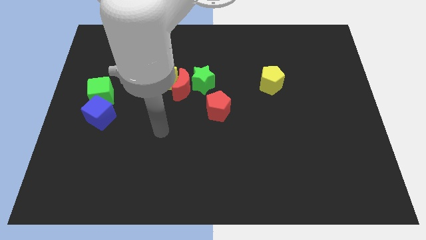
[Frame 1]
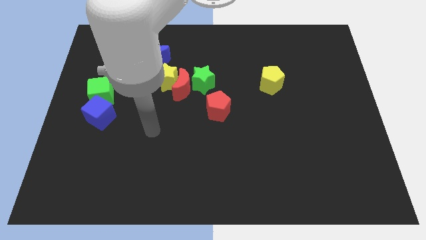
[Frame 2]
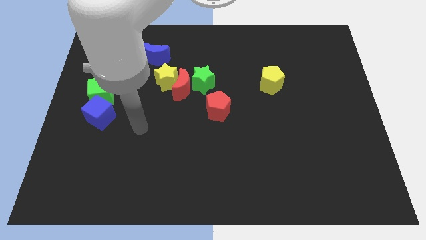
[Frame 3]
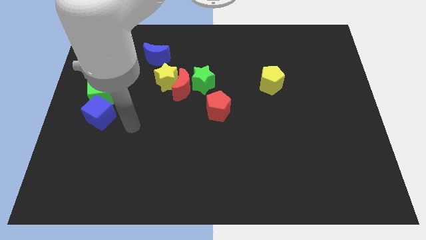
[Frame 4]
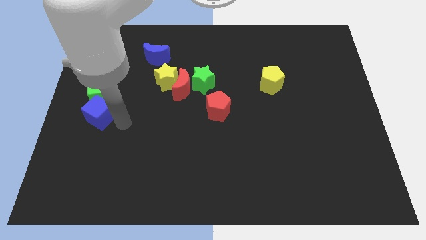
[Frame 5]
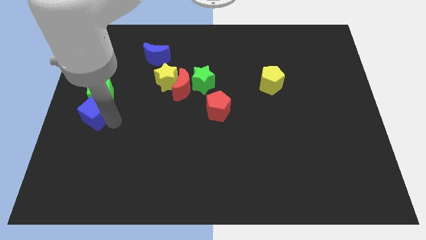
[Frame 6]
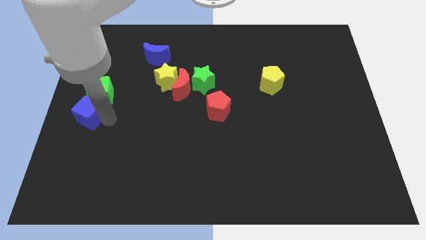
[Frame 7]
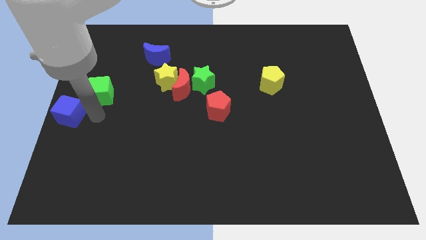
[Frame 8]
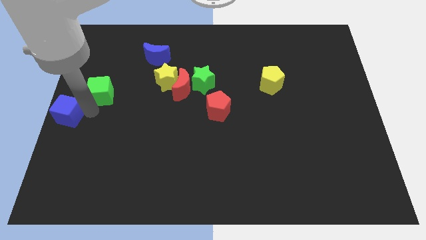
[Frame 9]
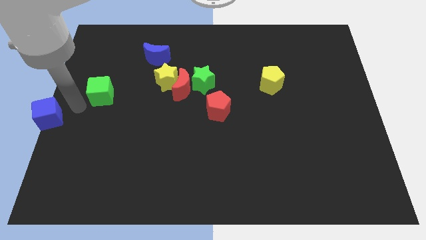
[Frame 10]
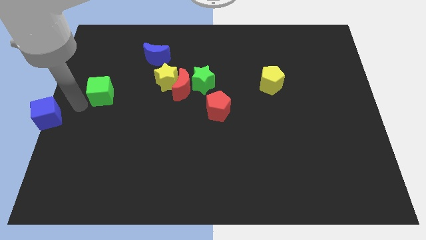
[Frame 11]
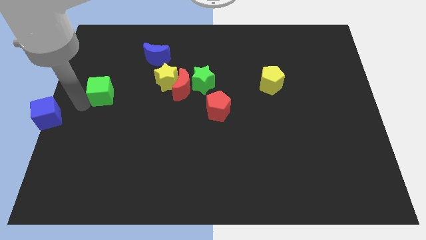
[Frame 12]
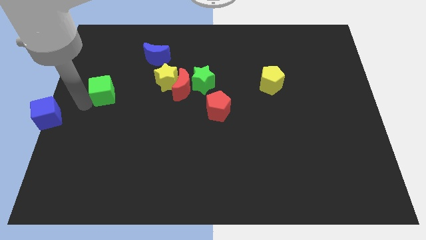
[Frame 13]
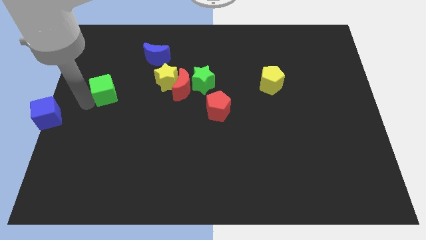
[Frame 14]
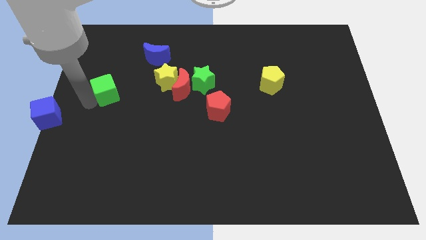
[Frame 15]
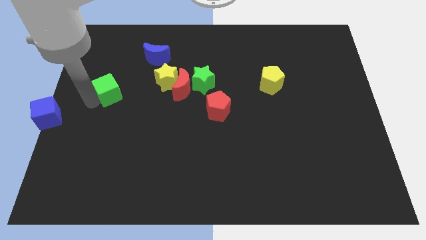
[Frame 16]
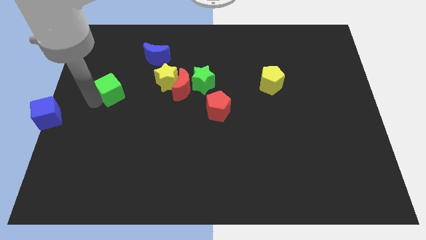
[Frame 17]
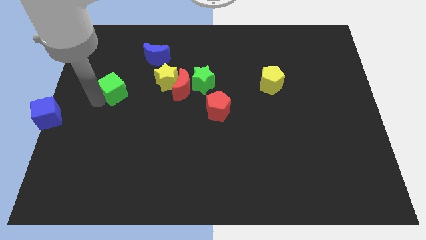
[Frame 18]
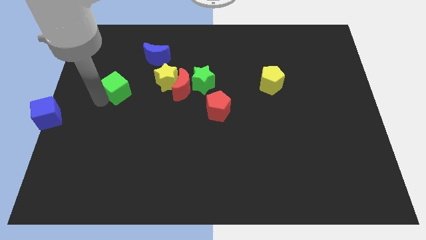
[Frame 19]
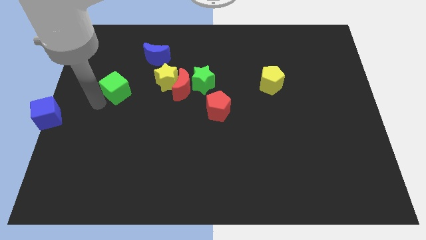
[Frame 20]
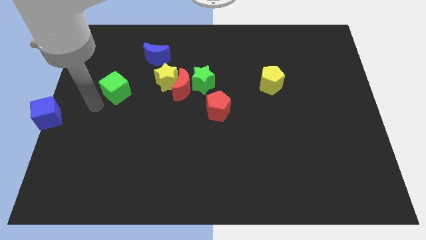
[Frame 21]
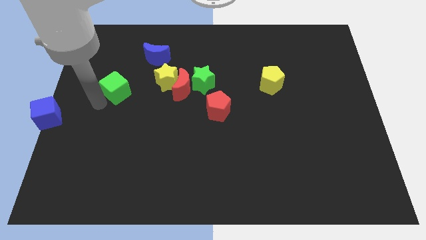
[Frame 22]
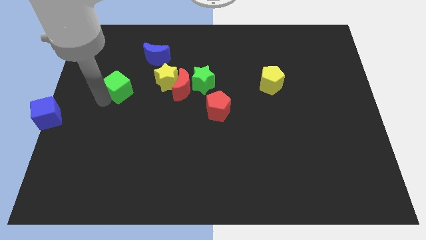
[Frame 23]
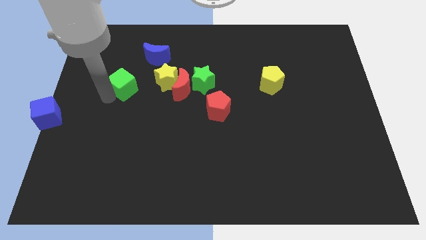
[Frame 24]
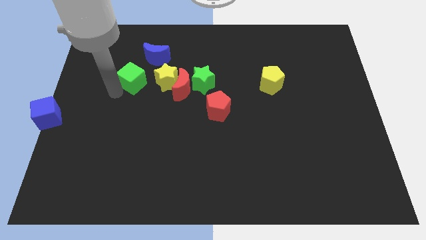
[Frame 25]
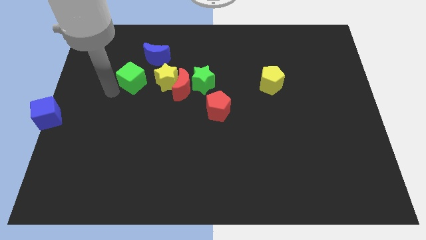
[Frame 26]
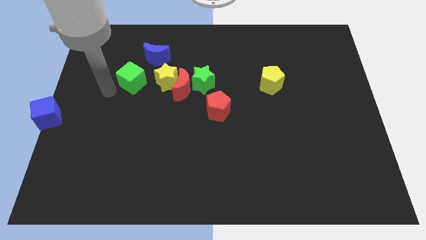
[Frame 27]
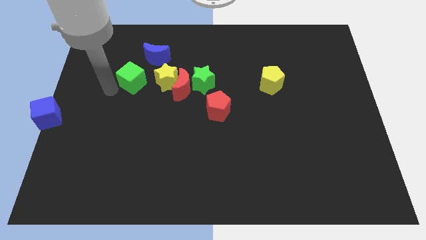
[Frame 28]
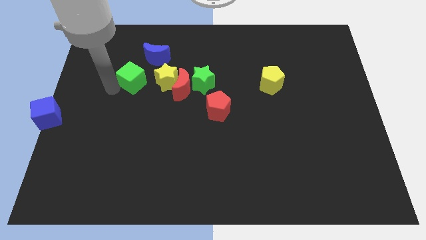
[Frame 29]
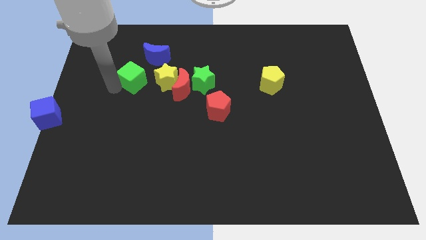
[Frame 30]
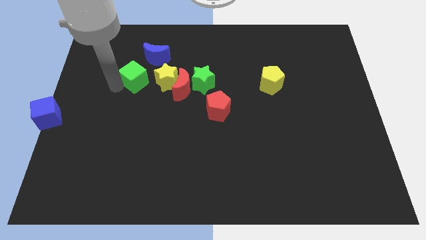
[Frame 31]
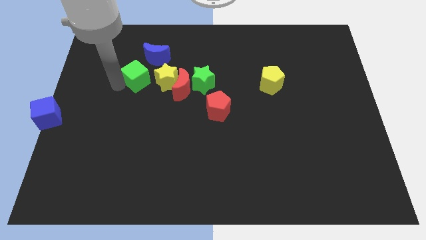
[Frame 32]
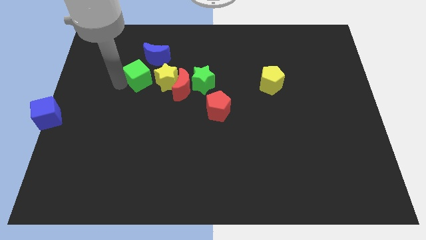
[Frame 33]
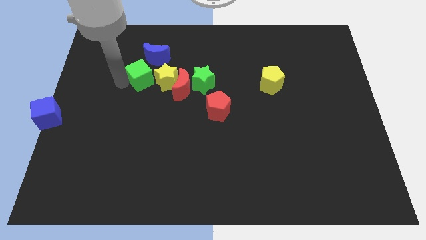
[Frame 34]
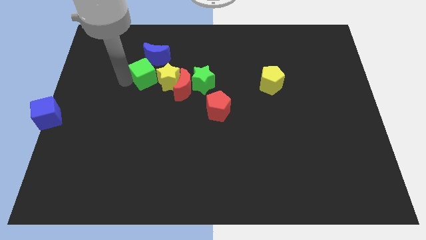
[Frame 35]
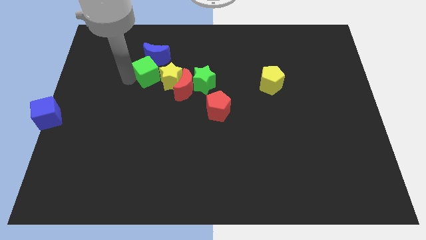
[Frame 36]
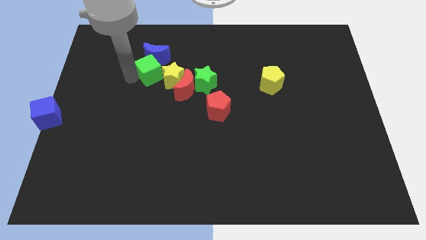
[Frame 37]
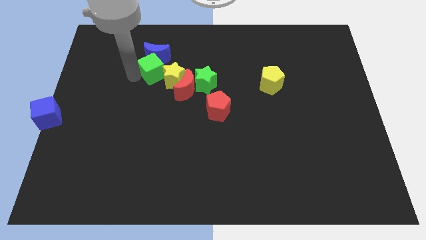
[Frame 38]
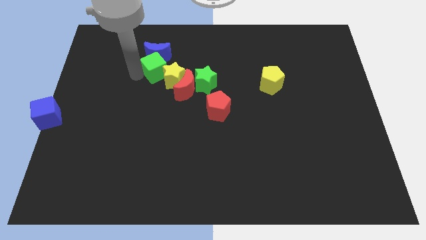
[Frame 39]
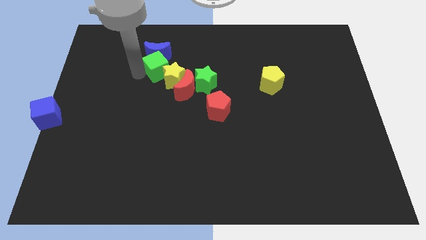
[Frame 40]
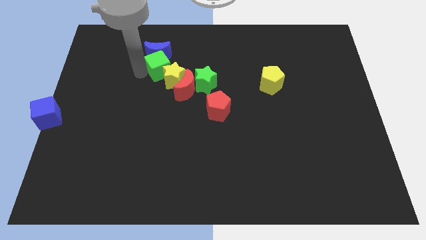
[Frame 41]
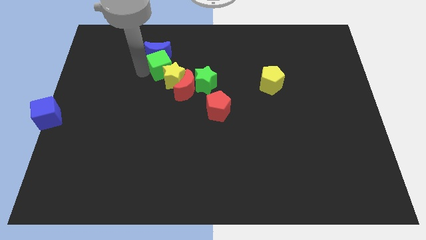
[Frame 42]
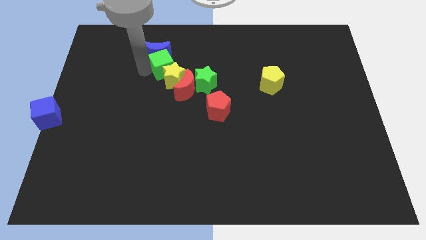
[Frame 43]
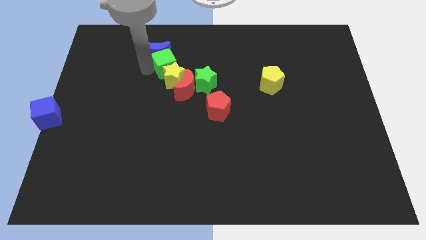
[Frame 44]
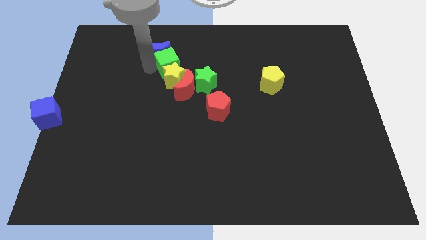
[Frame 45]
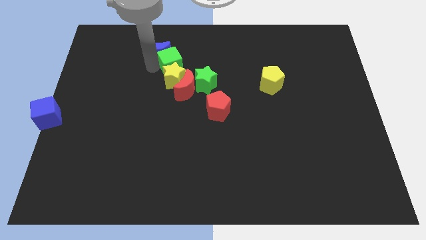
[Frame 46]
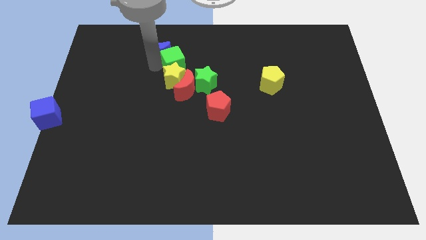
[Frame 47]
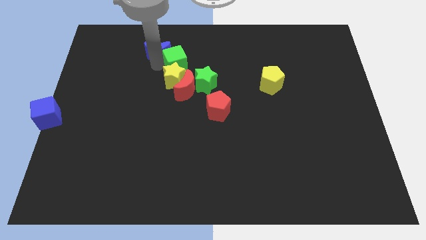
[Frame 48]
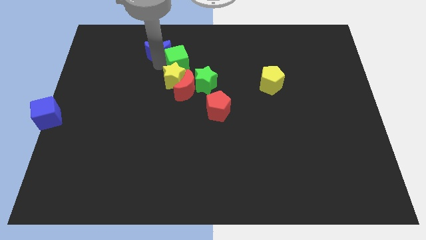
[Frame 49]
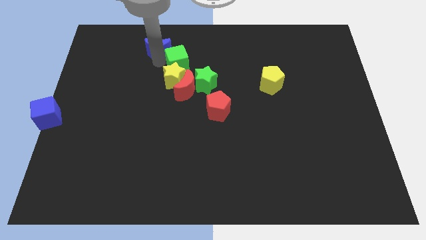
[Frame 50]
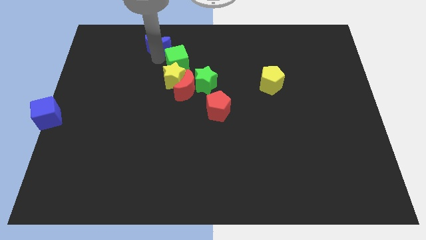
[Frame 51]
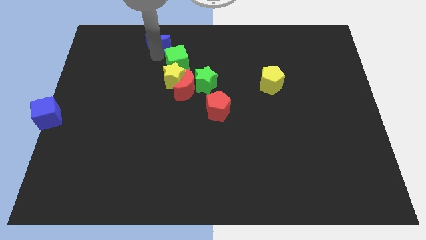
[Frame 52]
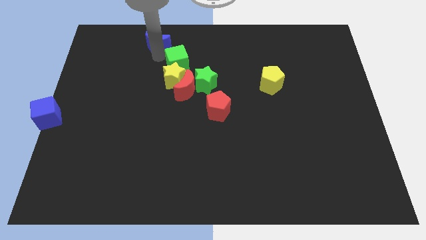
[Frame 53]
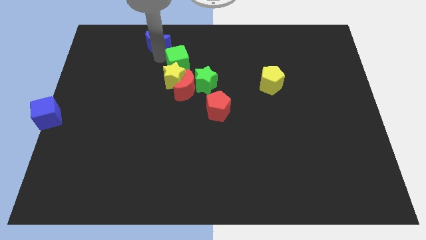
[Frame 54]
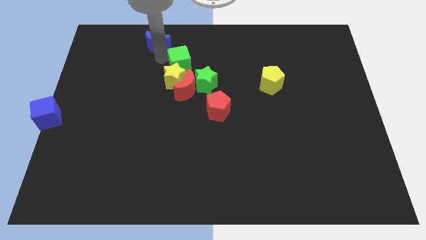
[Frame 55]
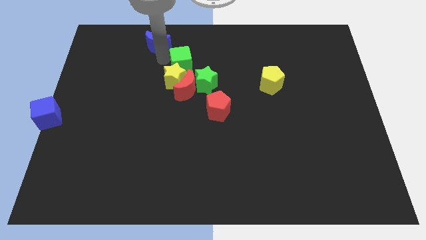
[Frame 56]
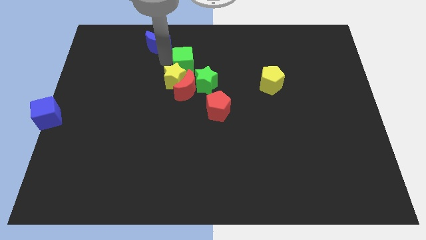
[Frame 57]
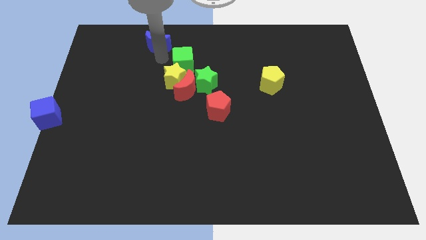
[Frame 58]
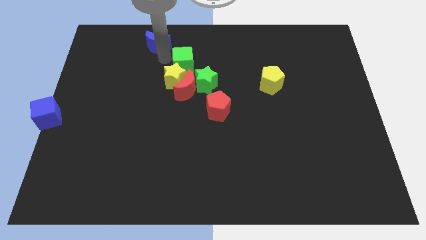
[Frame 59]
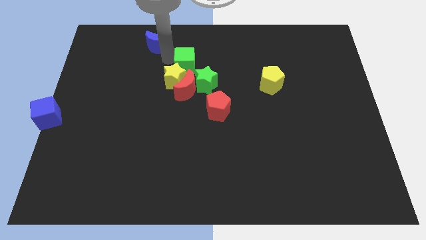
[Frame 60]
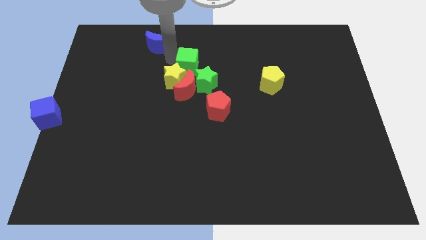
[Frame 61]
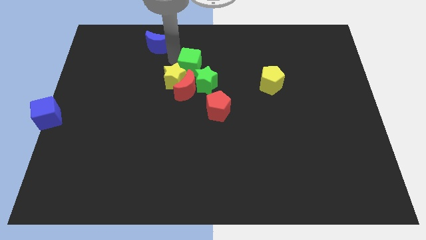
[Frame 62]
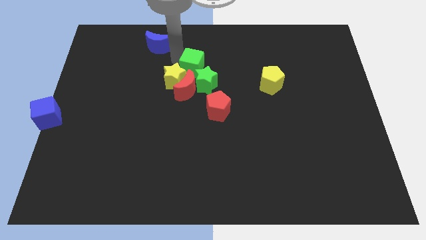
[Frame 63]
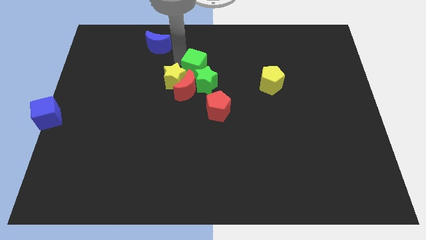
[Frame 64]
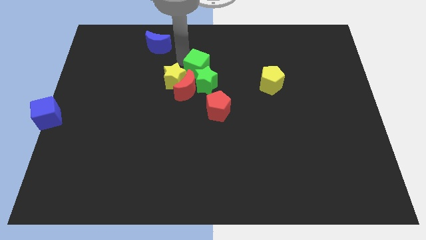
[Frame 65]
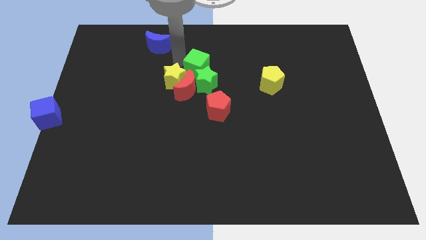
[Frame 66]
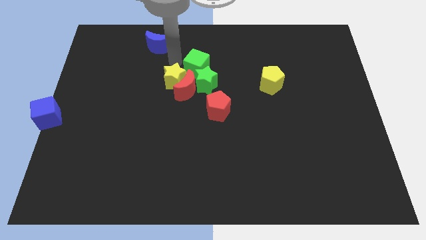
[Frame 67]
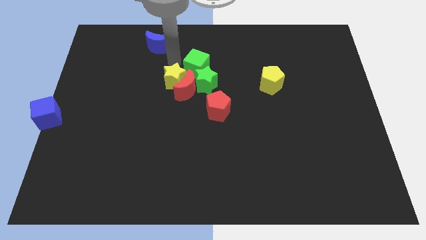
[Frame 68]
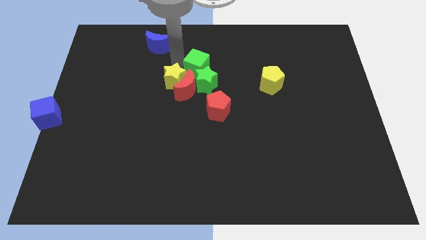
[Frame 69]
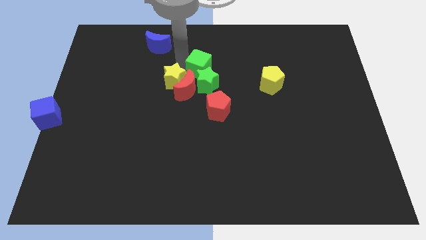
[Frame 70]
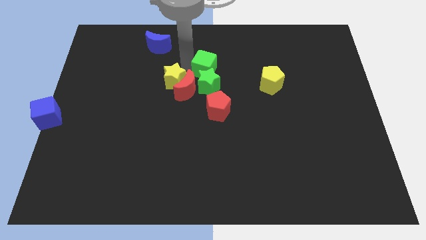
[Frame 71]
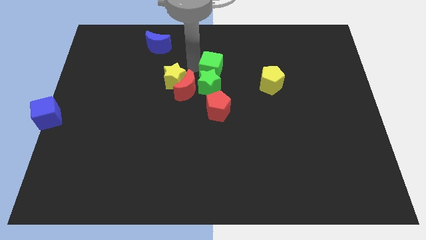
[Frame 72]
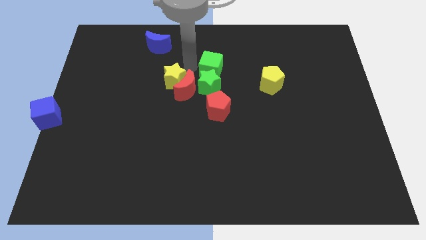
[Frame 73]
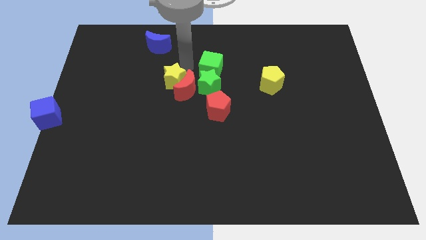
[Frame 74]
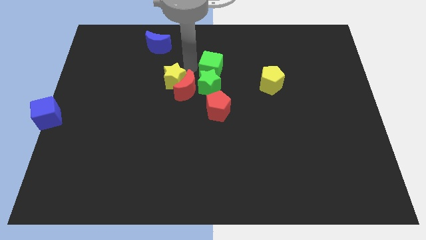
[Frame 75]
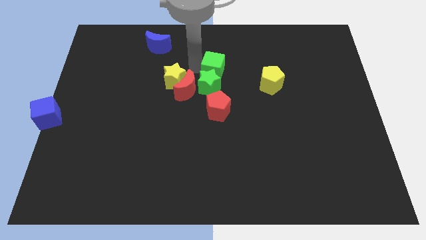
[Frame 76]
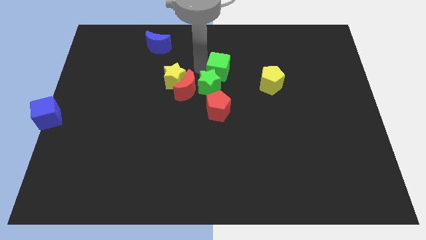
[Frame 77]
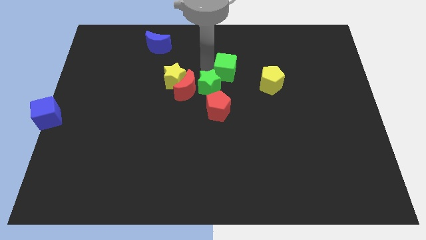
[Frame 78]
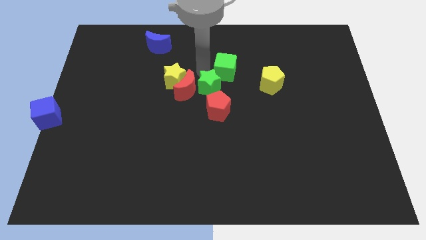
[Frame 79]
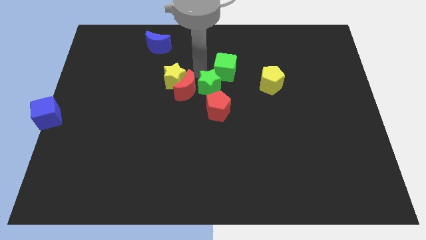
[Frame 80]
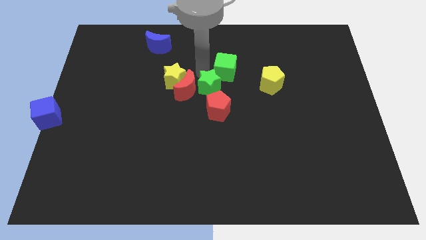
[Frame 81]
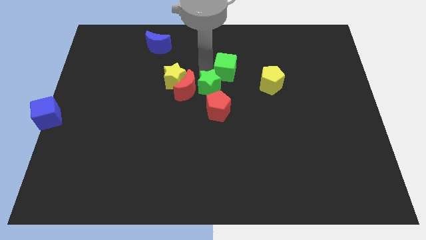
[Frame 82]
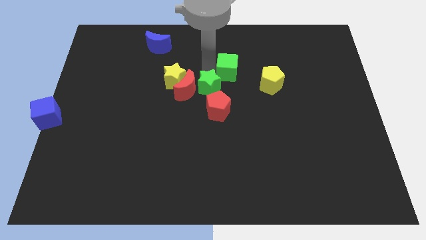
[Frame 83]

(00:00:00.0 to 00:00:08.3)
move the green cube to the top left side of the yellow pentagon
